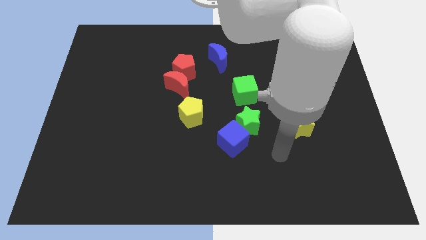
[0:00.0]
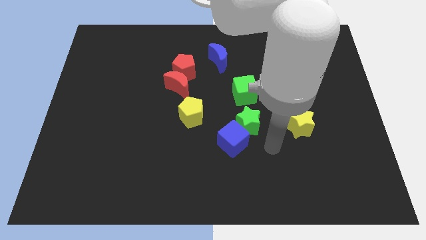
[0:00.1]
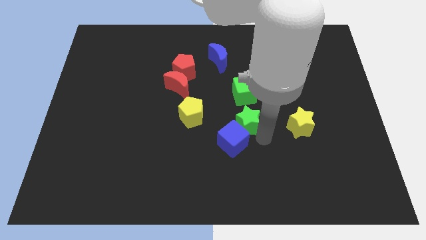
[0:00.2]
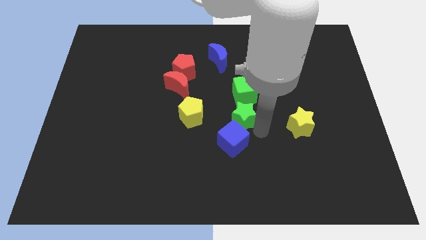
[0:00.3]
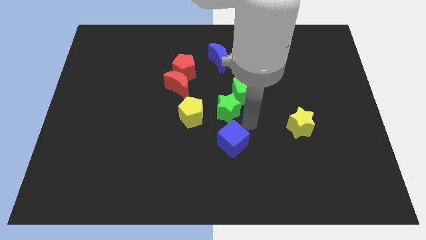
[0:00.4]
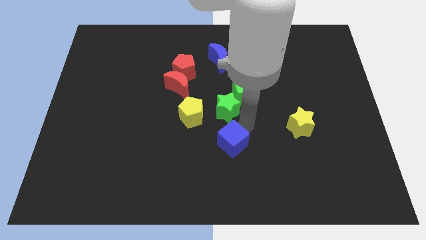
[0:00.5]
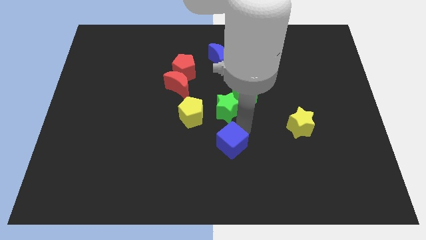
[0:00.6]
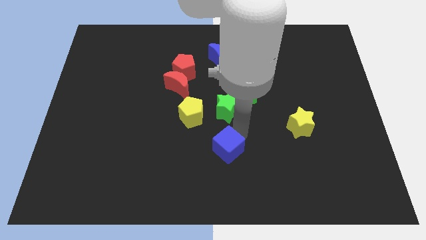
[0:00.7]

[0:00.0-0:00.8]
separate the blue cube from the green star

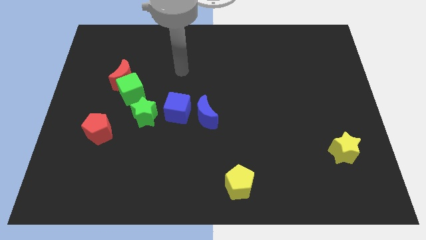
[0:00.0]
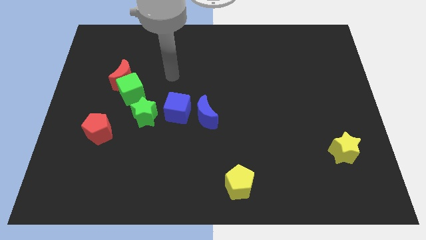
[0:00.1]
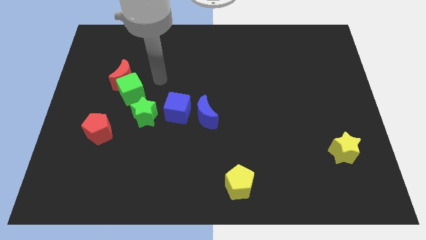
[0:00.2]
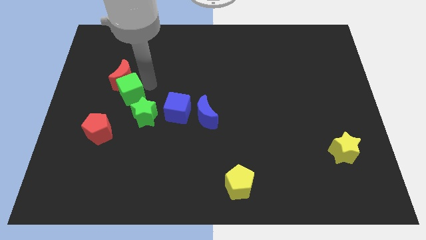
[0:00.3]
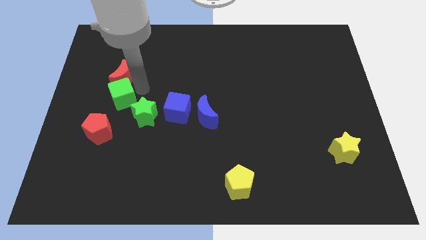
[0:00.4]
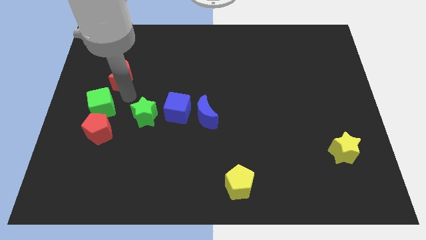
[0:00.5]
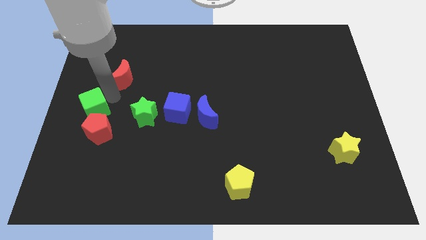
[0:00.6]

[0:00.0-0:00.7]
separate the red moon from the green cube

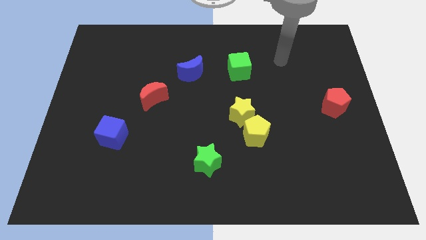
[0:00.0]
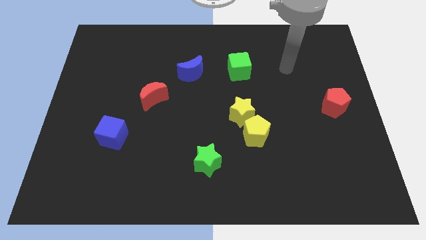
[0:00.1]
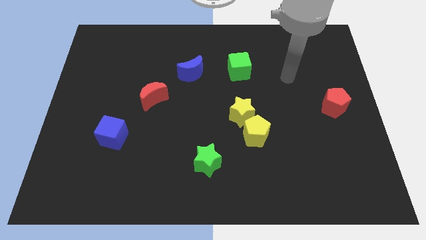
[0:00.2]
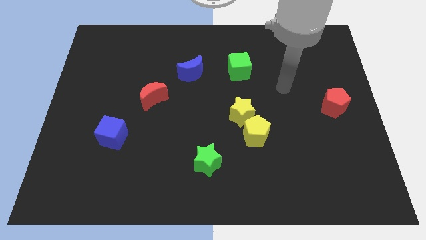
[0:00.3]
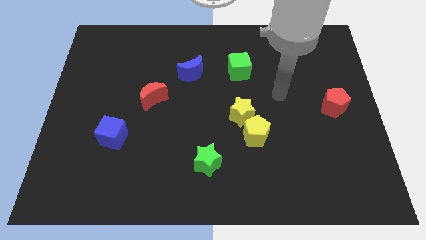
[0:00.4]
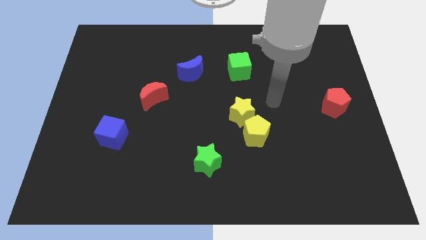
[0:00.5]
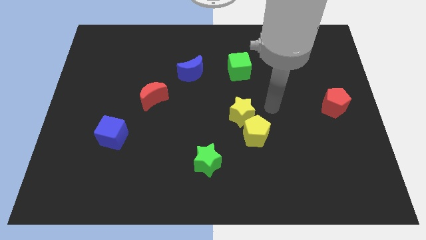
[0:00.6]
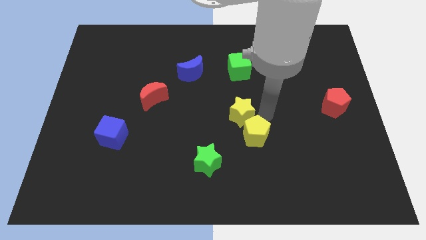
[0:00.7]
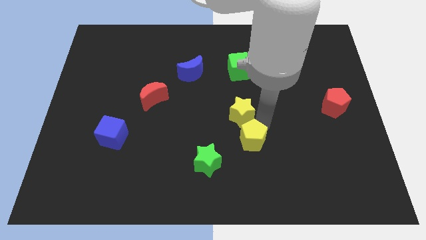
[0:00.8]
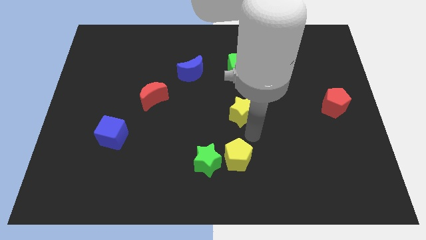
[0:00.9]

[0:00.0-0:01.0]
separate the yellow star from the yellow pentagon

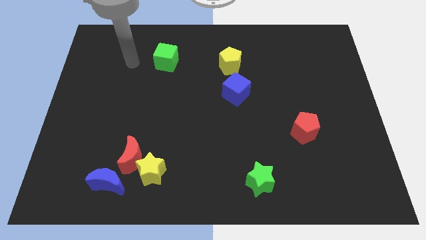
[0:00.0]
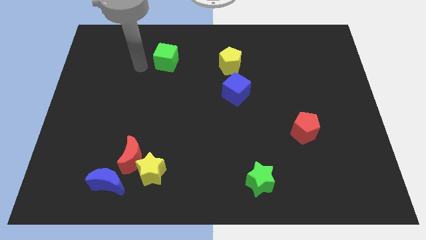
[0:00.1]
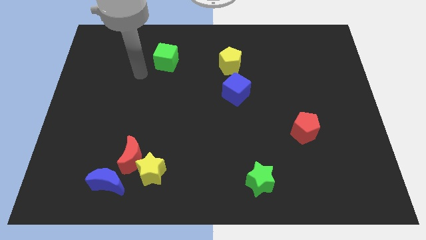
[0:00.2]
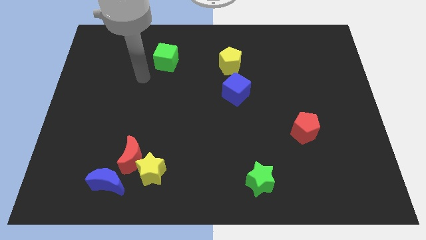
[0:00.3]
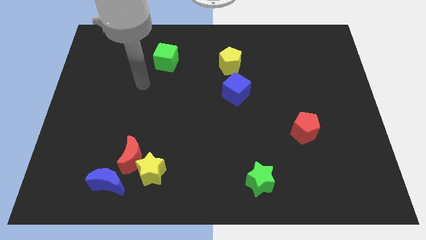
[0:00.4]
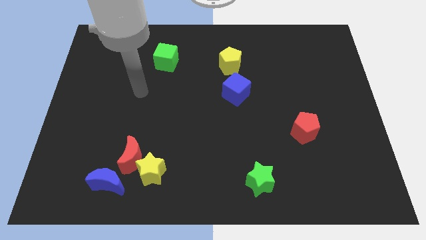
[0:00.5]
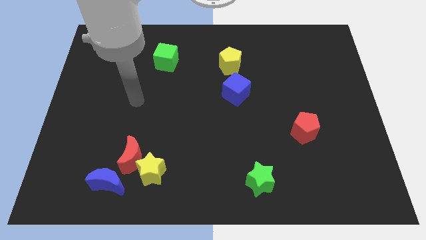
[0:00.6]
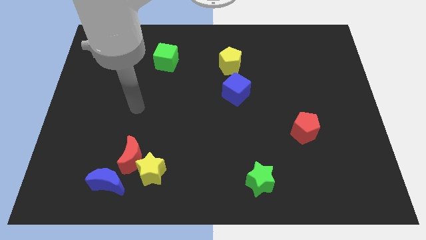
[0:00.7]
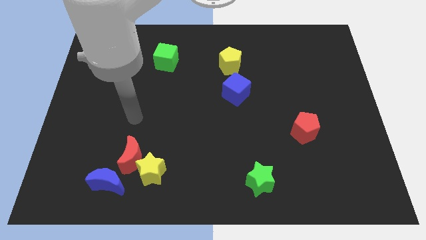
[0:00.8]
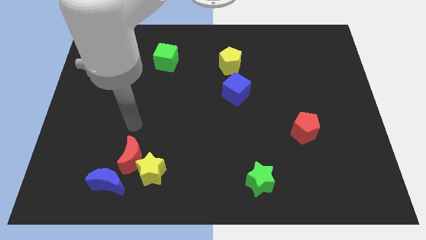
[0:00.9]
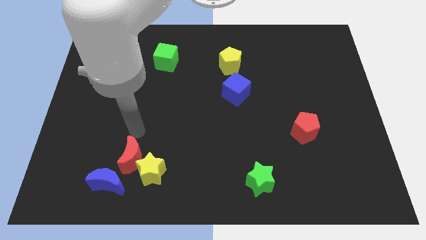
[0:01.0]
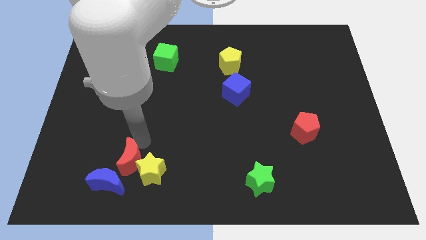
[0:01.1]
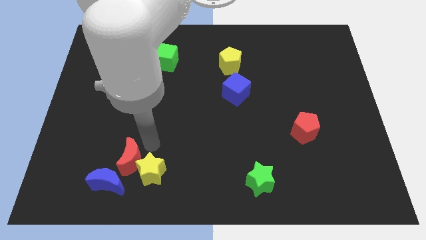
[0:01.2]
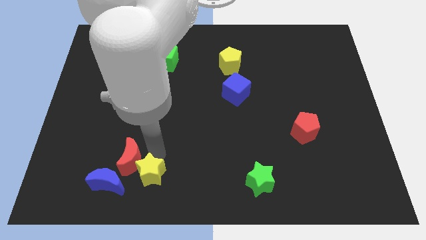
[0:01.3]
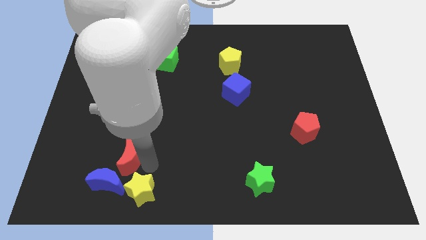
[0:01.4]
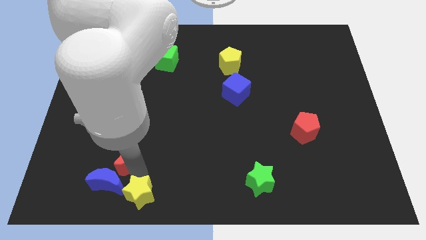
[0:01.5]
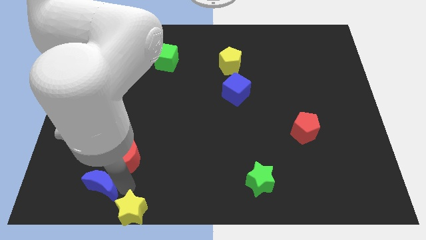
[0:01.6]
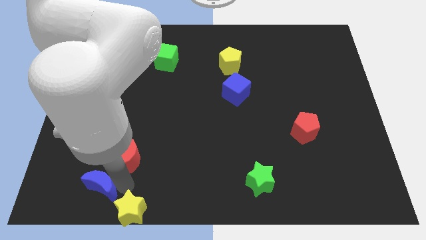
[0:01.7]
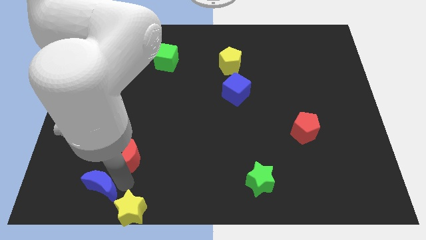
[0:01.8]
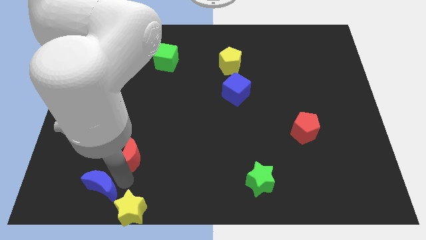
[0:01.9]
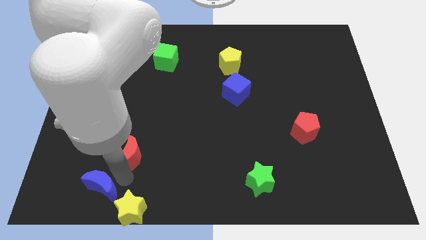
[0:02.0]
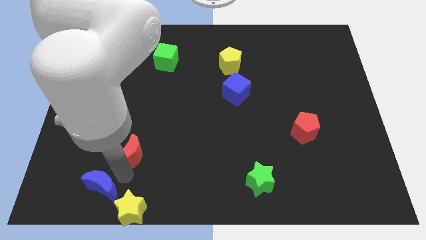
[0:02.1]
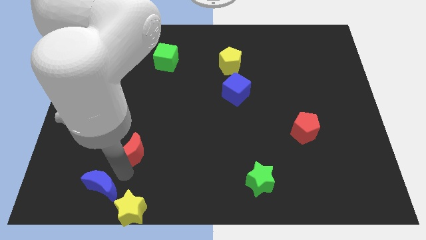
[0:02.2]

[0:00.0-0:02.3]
pull the red moon apart from the yellow star and blue moon

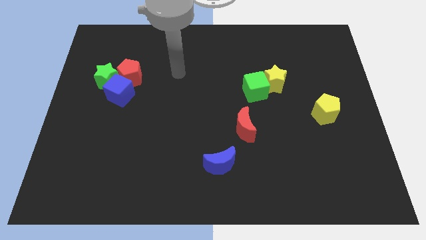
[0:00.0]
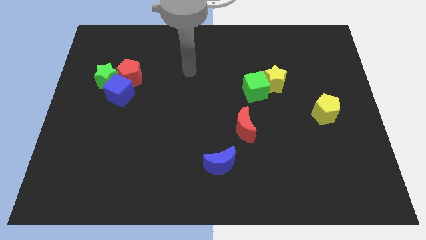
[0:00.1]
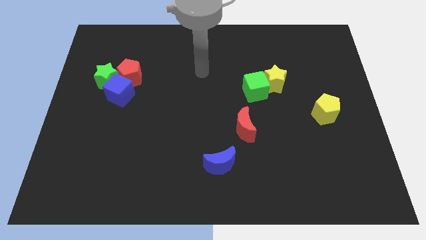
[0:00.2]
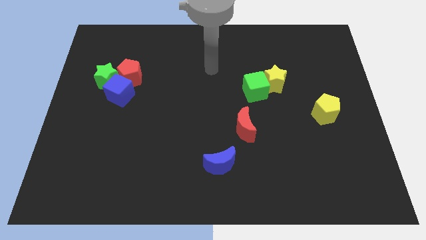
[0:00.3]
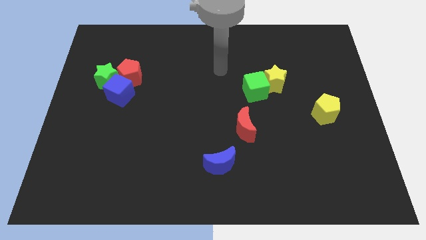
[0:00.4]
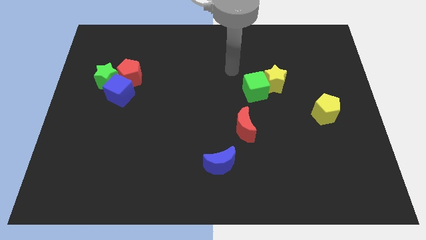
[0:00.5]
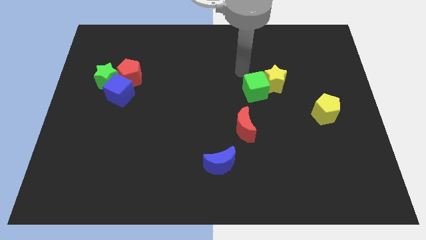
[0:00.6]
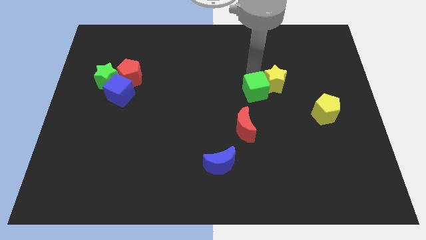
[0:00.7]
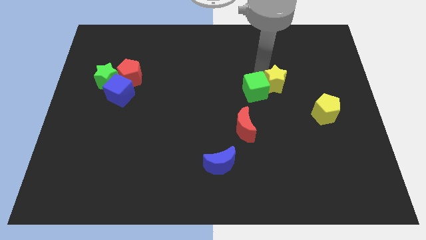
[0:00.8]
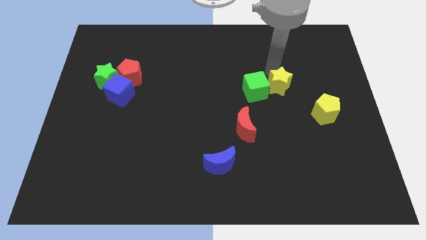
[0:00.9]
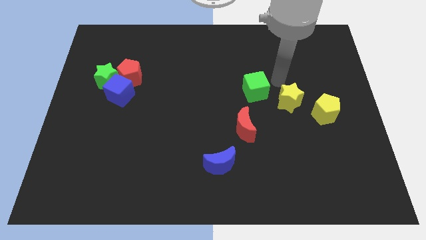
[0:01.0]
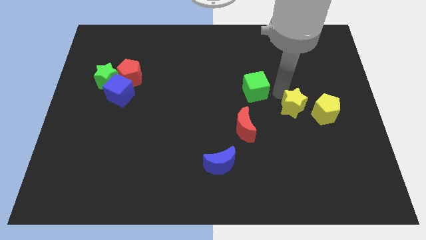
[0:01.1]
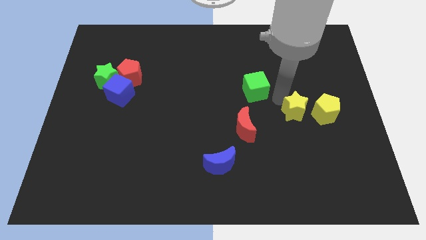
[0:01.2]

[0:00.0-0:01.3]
move the green cube away from the yellow star

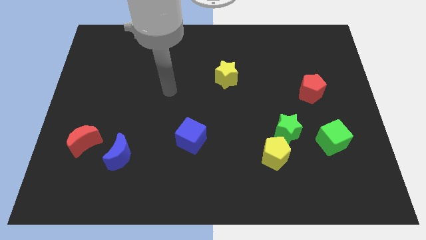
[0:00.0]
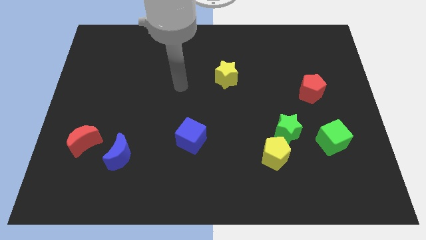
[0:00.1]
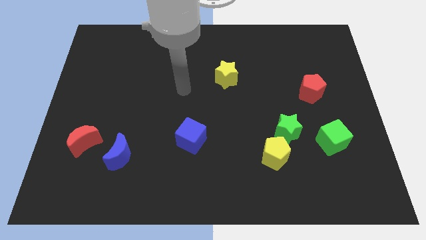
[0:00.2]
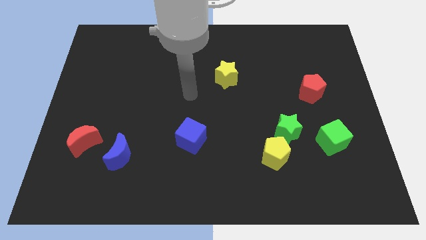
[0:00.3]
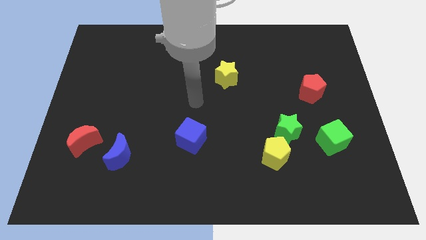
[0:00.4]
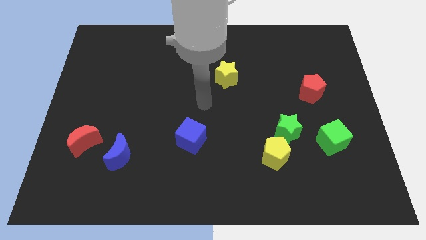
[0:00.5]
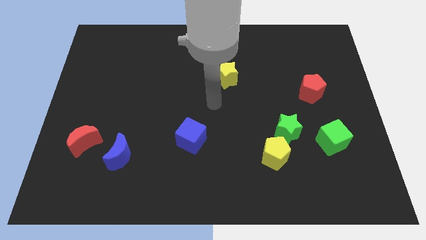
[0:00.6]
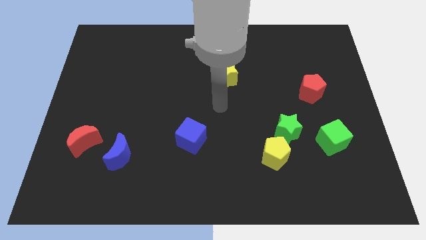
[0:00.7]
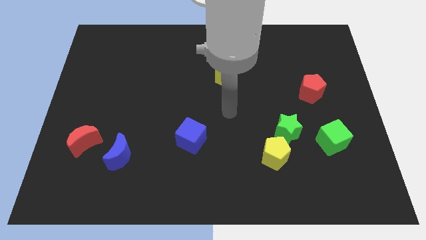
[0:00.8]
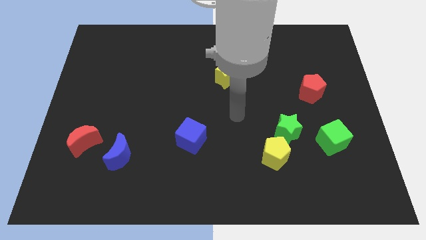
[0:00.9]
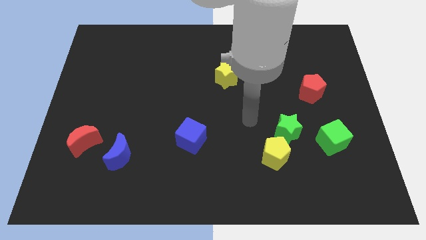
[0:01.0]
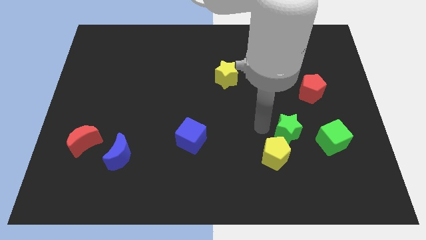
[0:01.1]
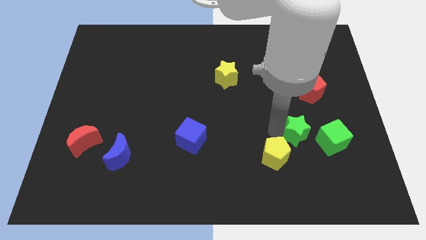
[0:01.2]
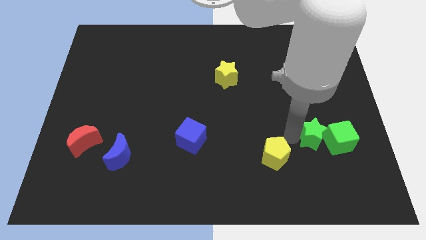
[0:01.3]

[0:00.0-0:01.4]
pull the yellow pentagon apart from the green star

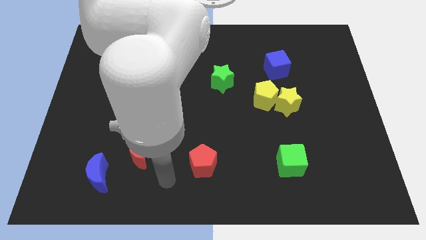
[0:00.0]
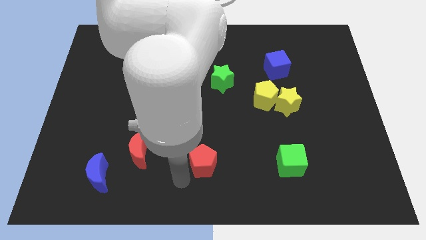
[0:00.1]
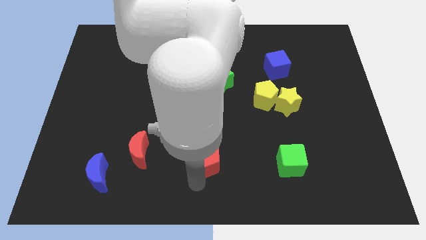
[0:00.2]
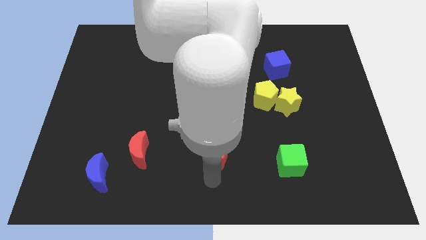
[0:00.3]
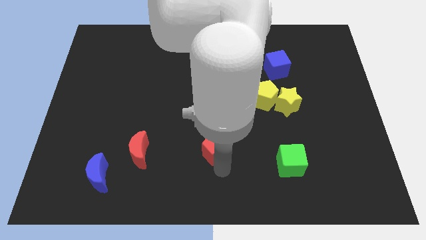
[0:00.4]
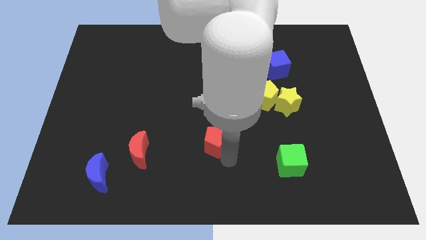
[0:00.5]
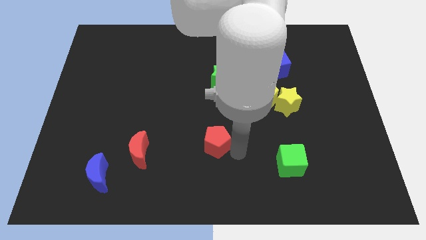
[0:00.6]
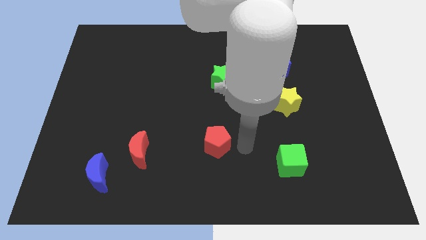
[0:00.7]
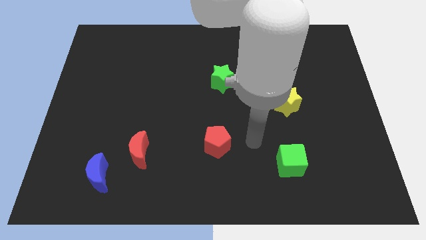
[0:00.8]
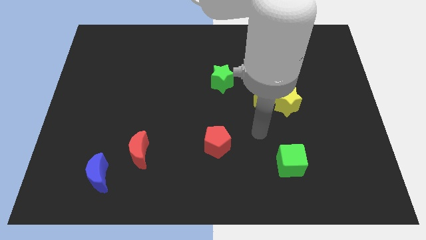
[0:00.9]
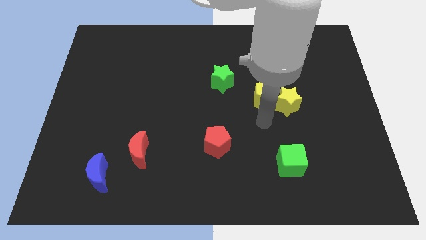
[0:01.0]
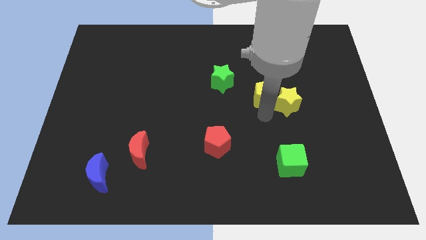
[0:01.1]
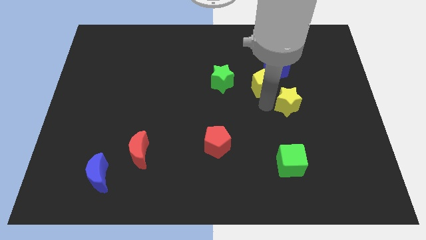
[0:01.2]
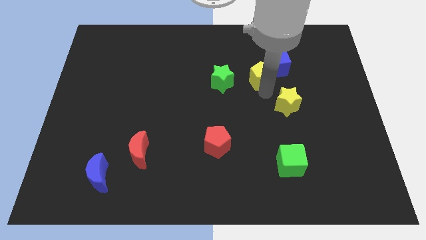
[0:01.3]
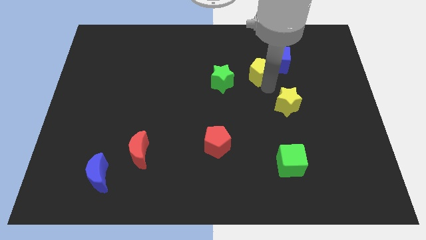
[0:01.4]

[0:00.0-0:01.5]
pull the yellow star apart from the yellow pentagon

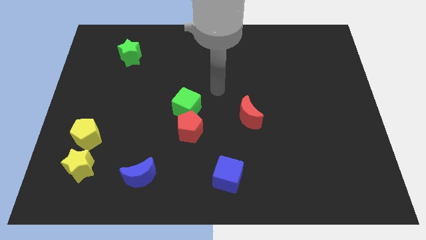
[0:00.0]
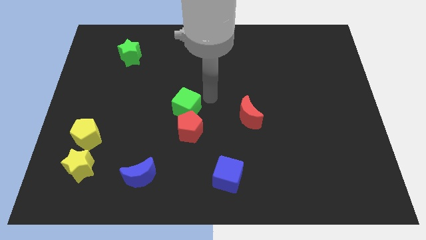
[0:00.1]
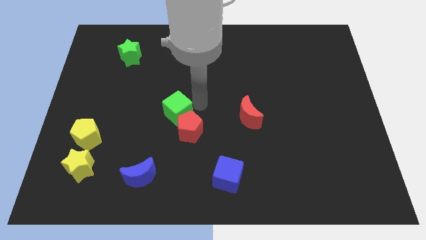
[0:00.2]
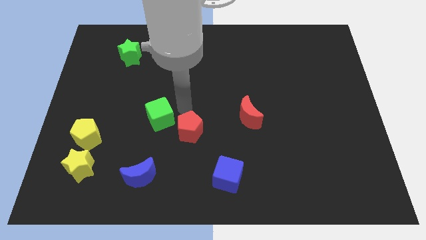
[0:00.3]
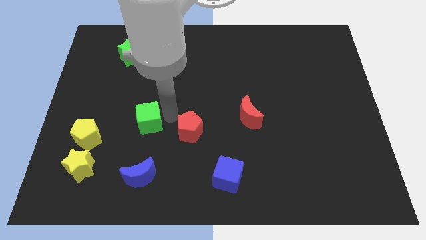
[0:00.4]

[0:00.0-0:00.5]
separate the red pentagon from the green cube
